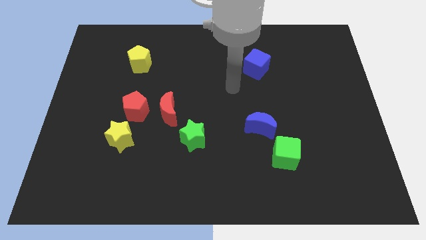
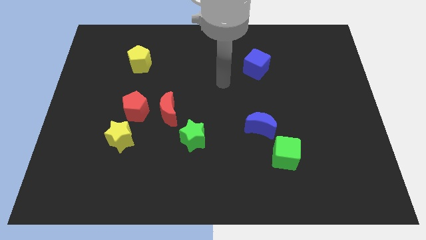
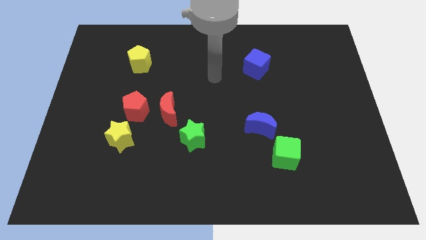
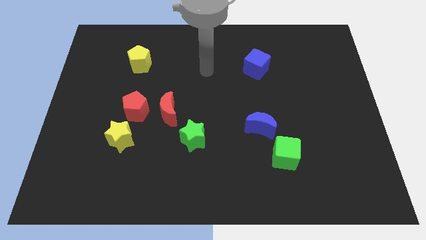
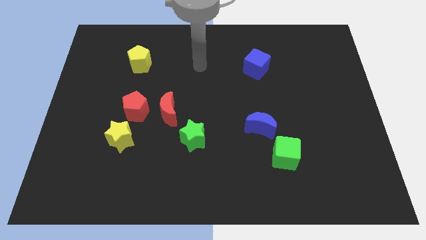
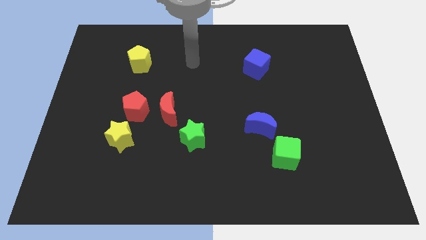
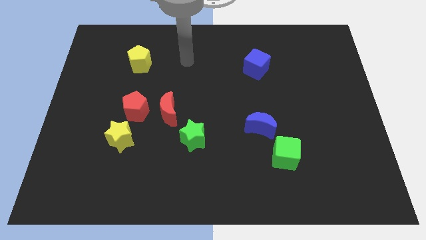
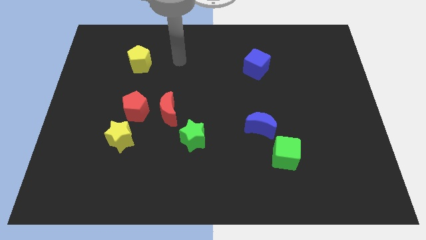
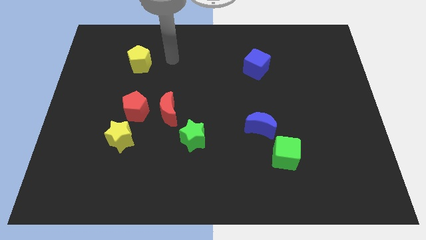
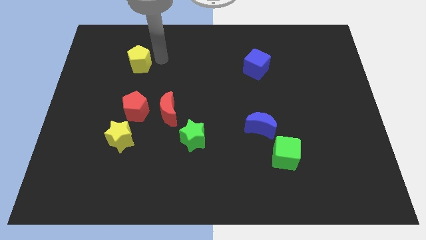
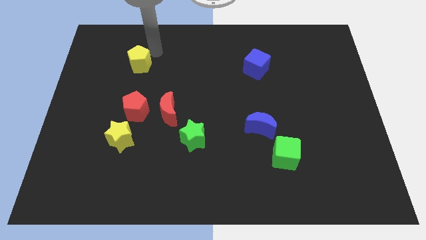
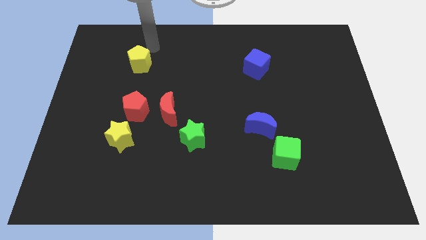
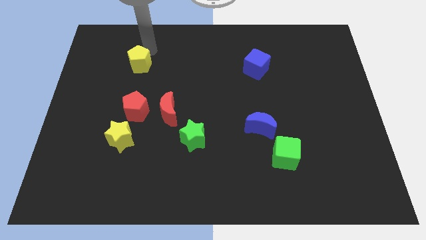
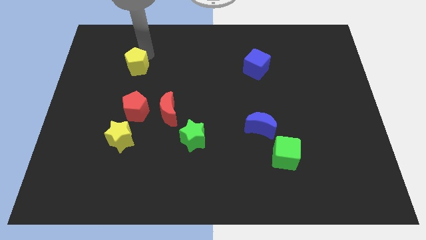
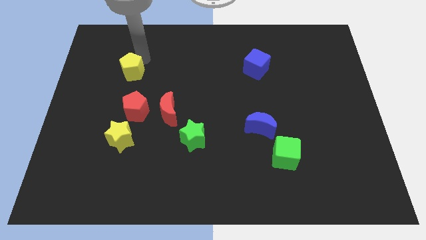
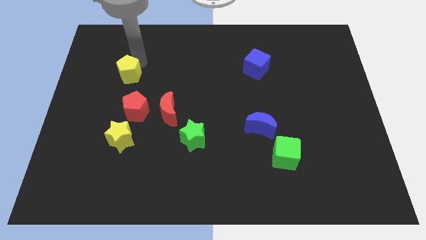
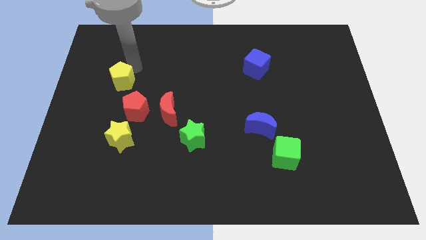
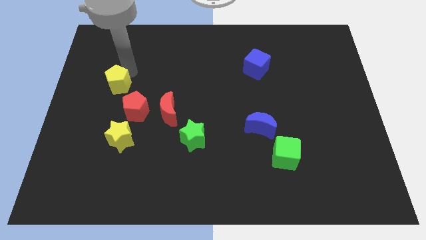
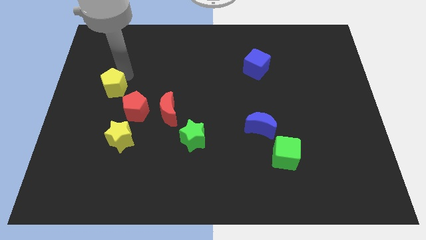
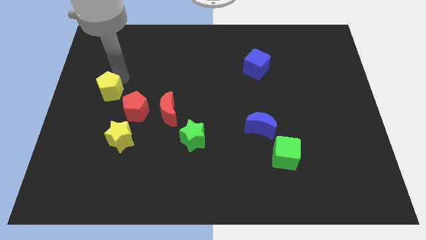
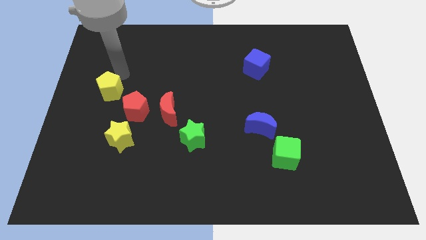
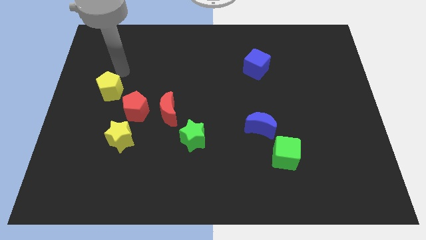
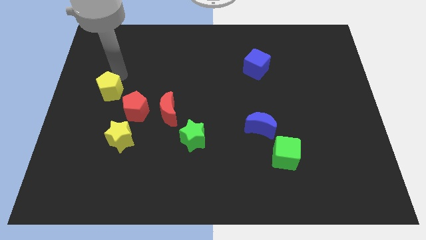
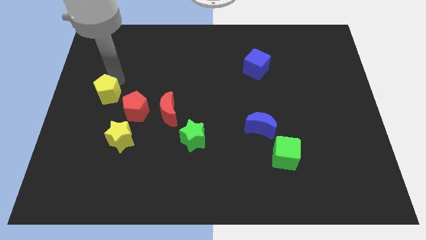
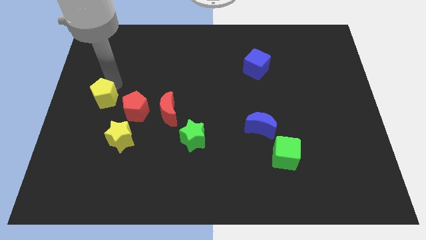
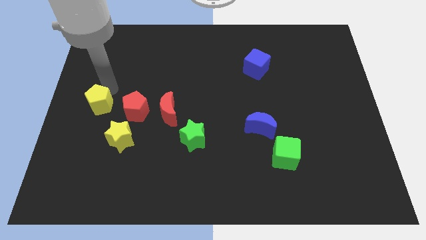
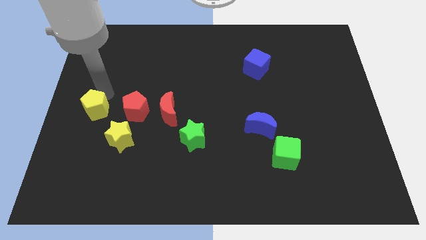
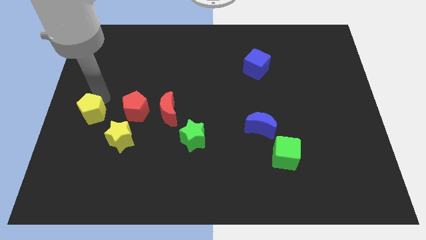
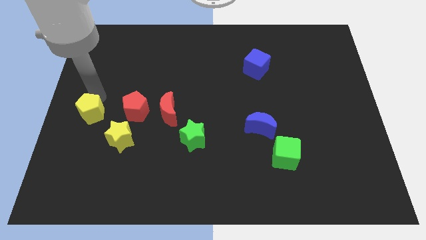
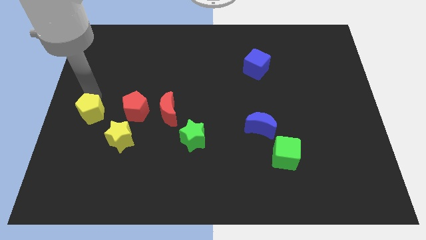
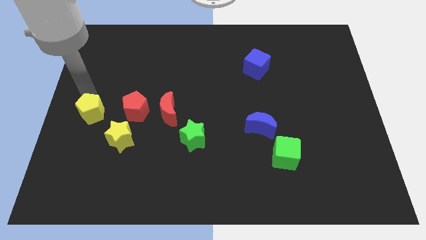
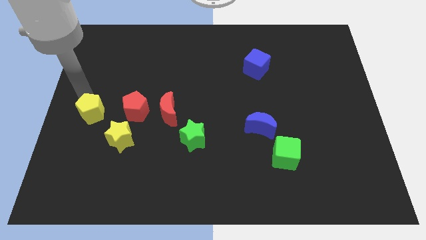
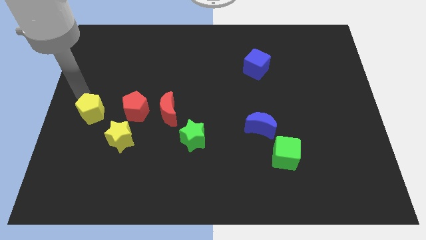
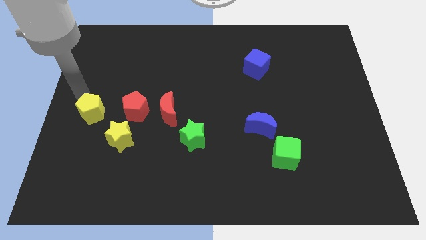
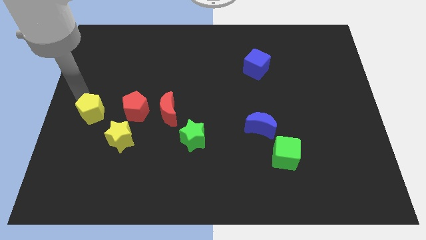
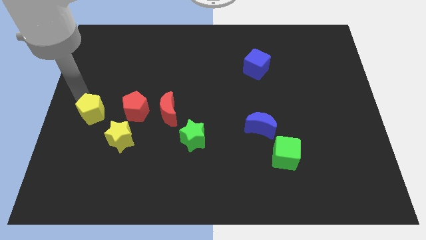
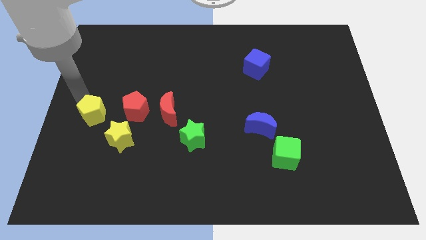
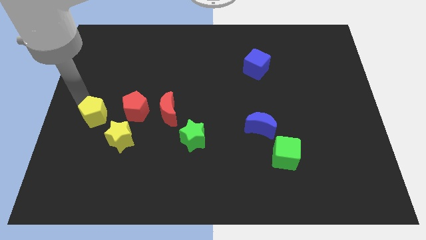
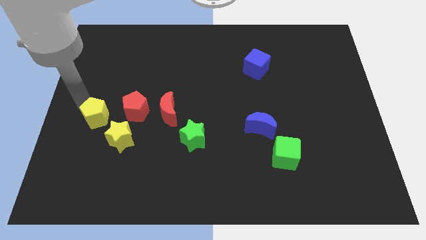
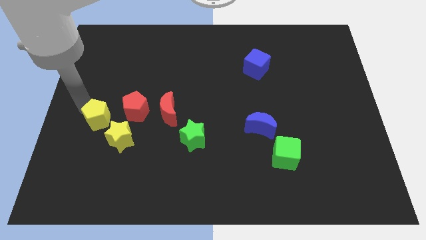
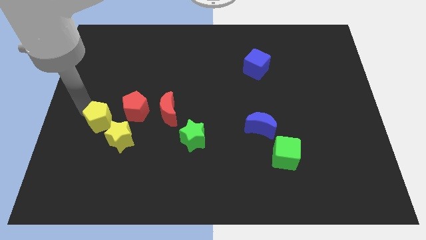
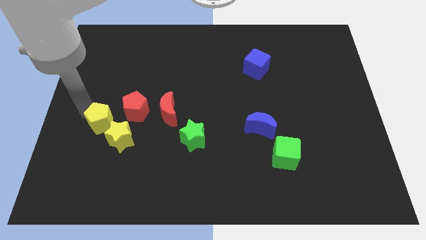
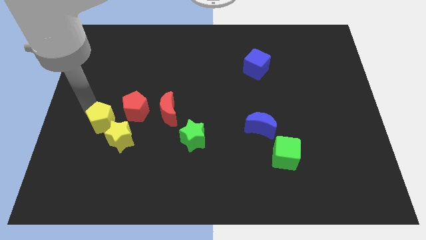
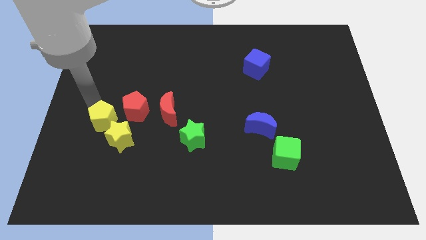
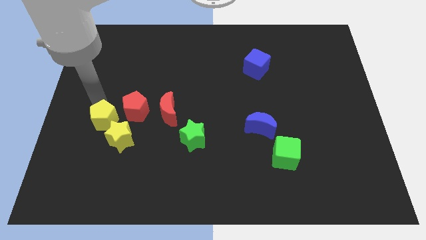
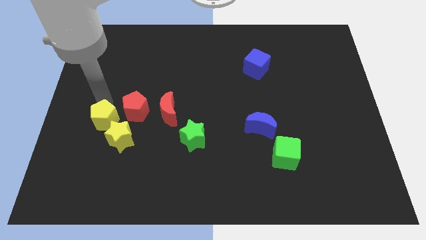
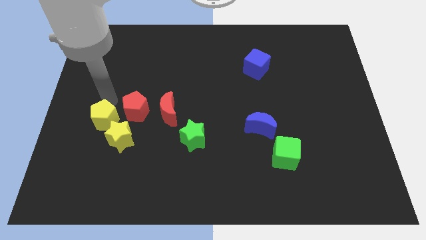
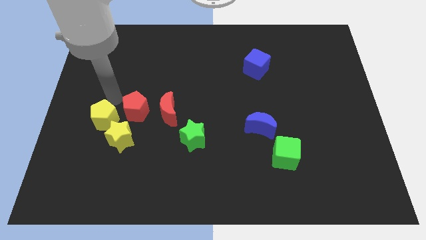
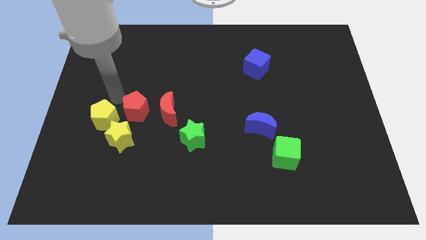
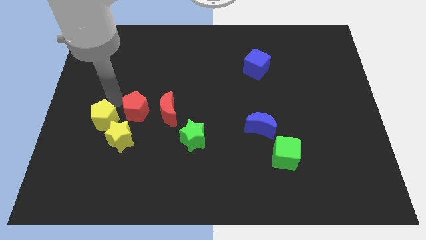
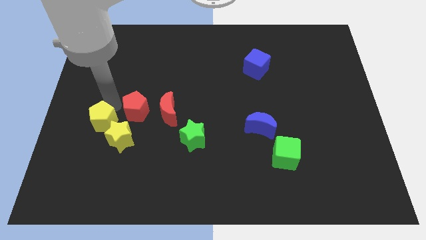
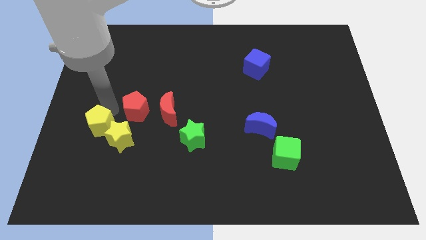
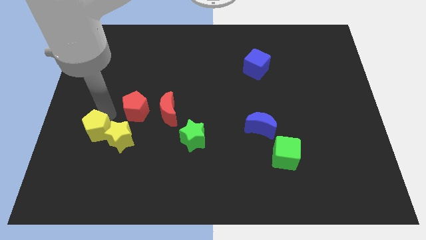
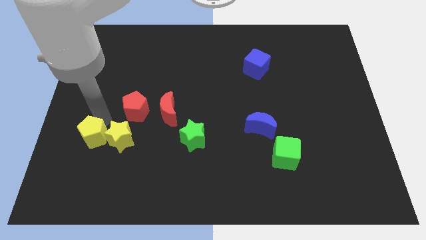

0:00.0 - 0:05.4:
move the yellow pentagon downwards

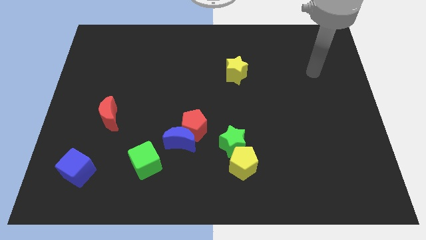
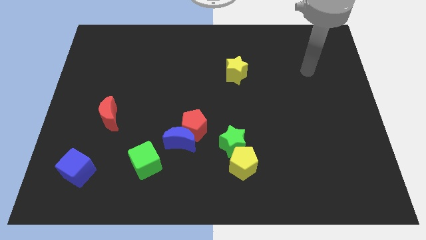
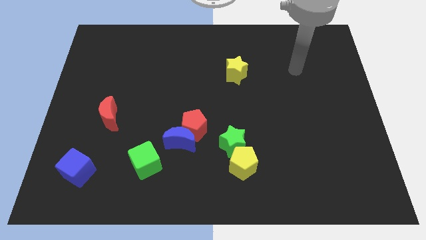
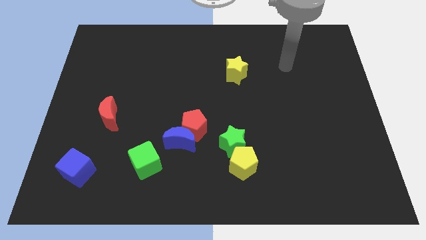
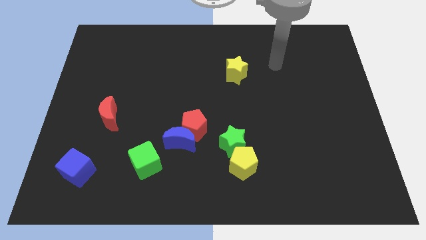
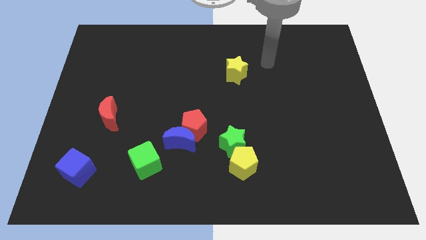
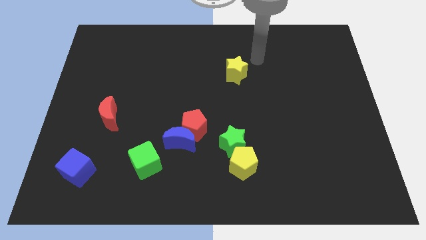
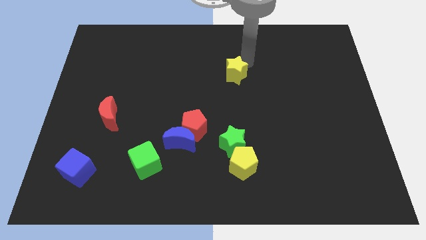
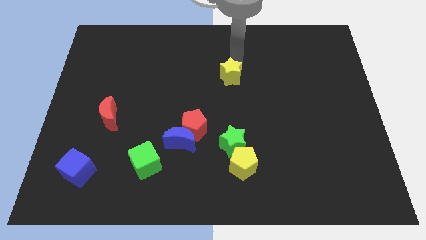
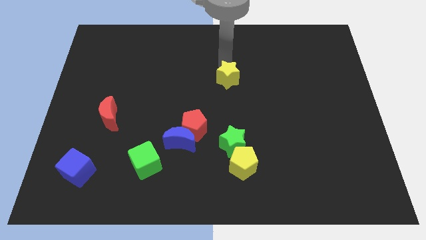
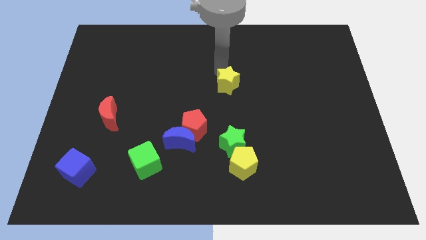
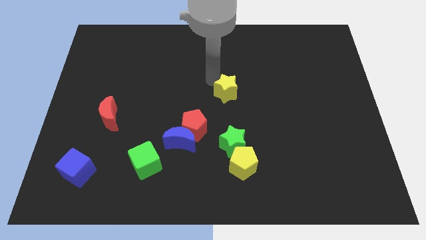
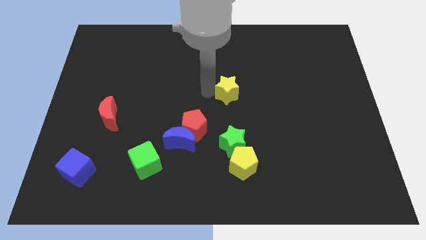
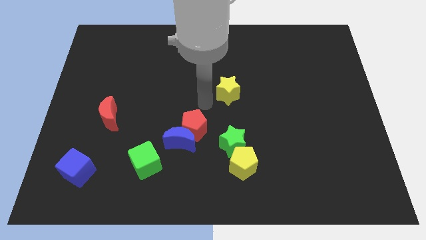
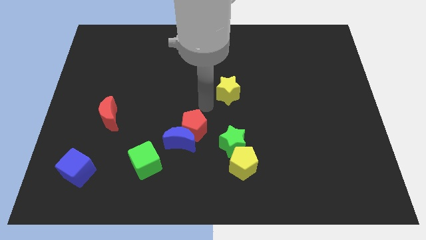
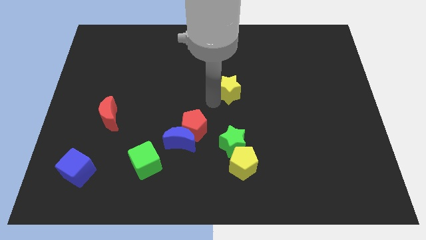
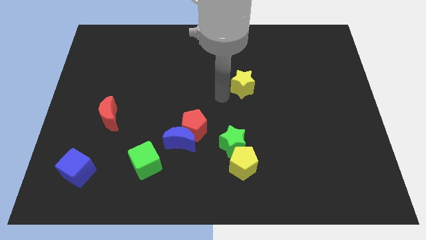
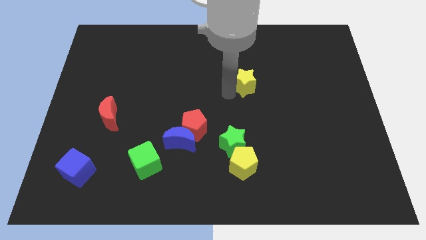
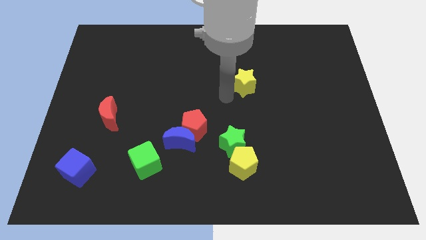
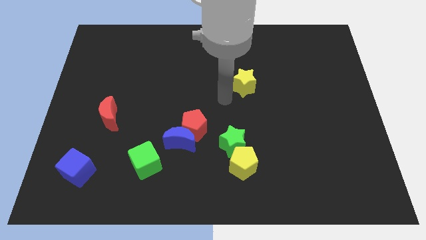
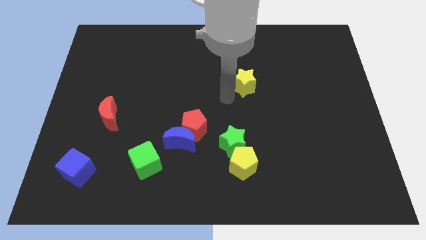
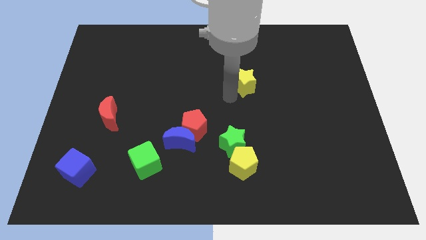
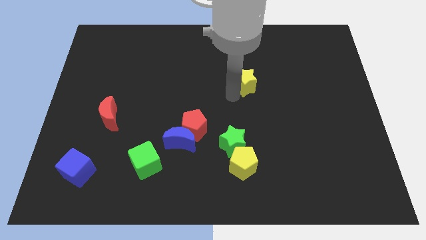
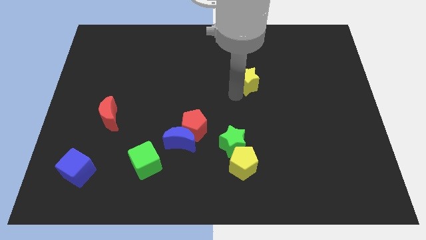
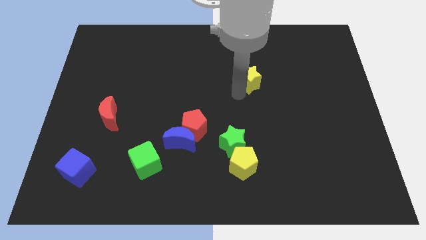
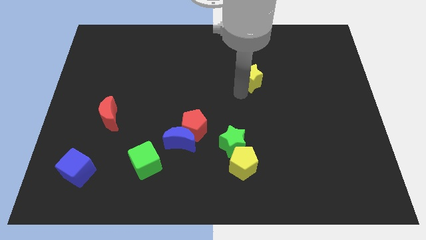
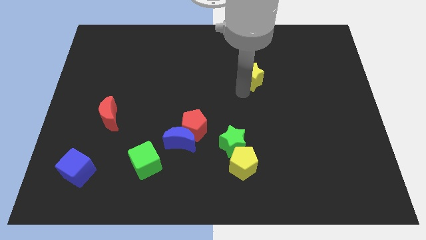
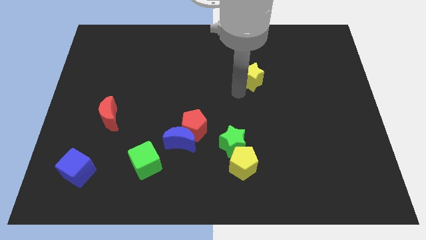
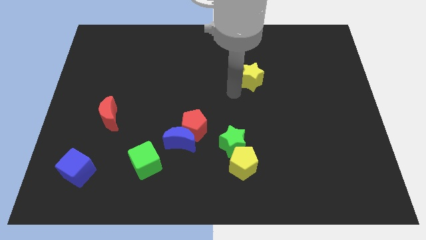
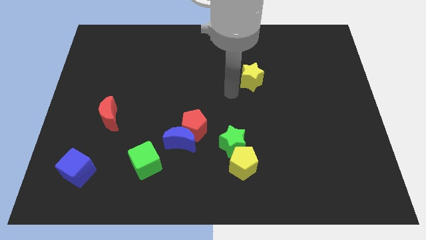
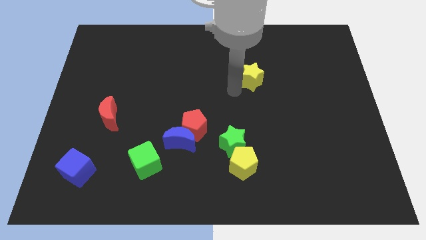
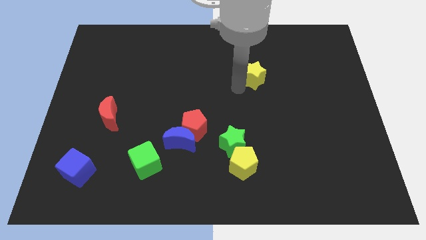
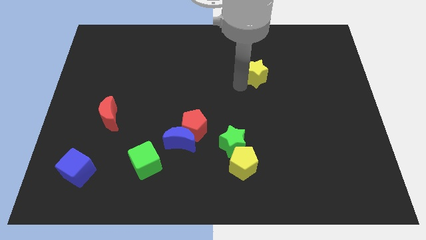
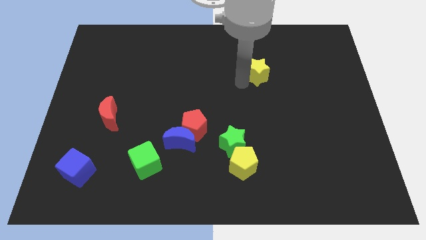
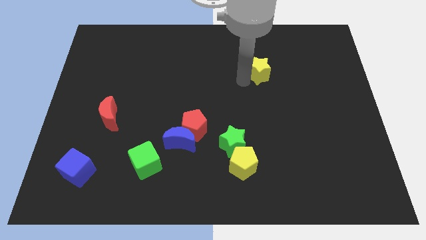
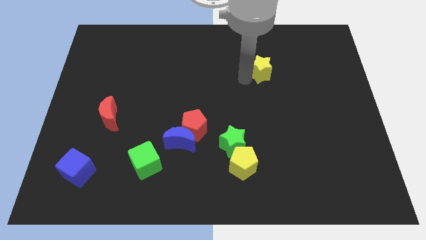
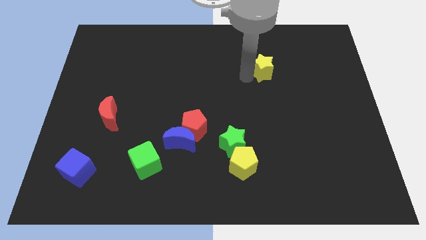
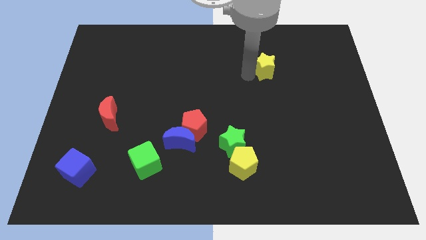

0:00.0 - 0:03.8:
slightly slide the yellow star right
